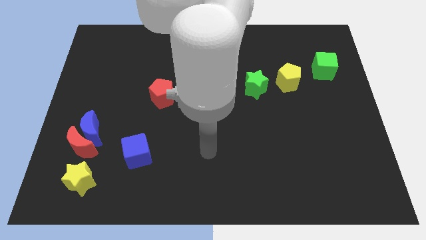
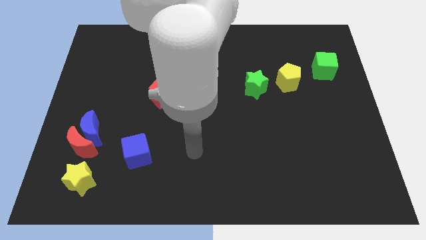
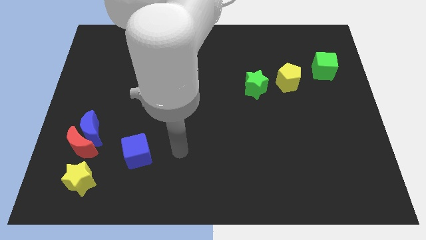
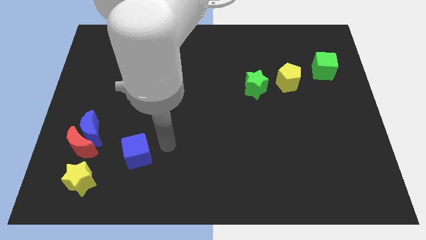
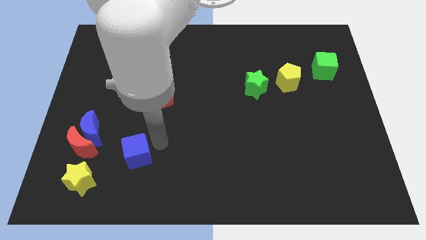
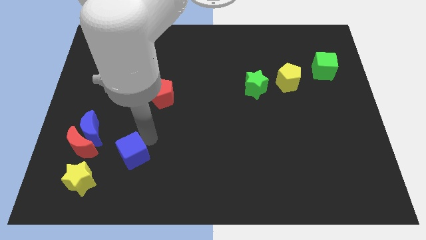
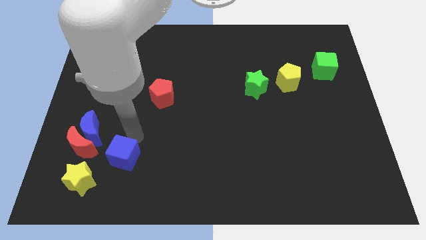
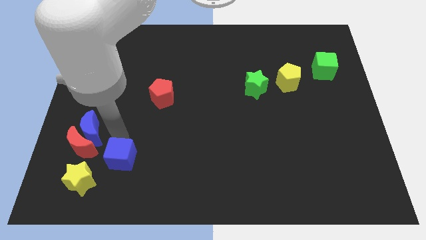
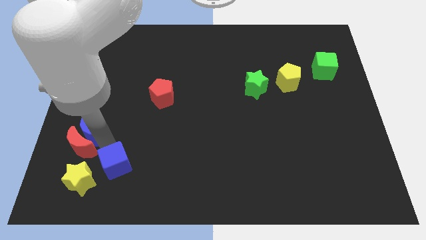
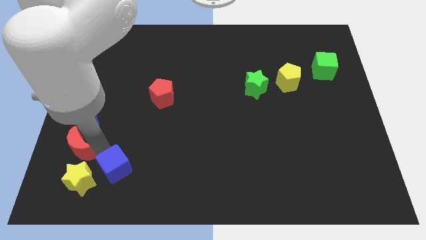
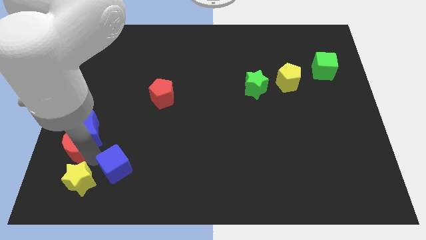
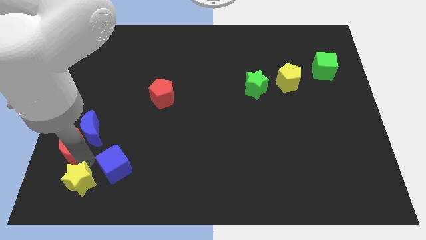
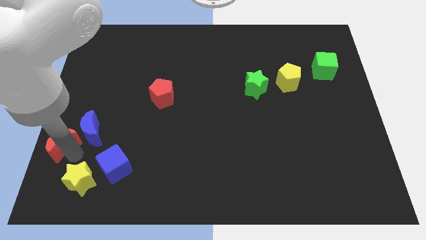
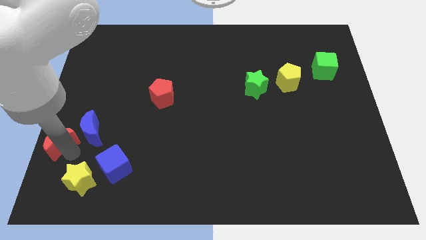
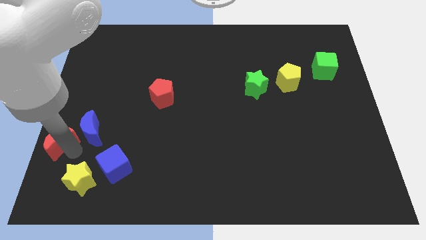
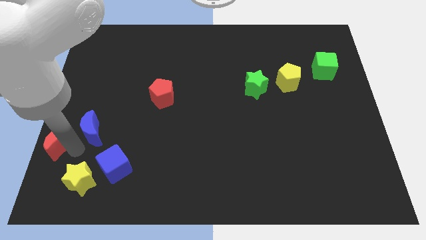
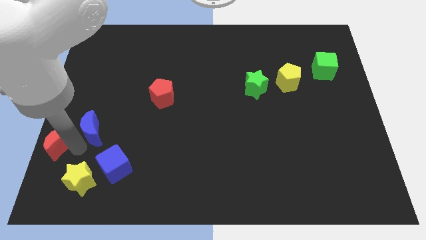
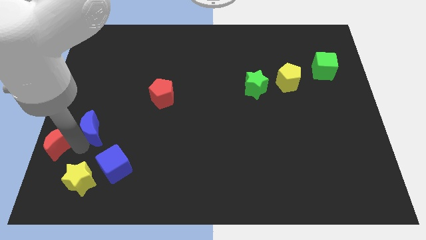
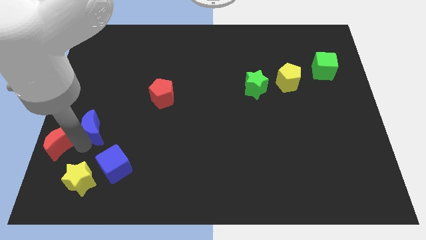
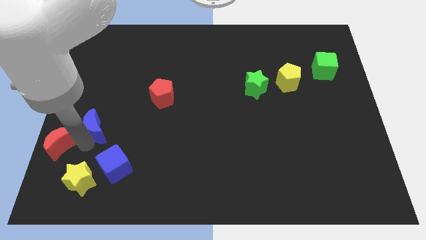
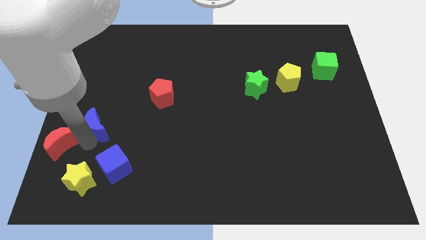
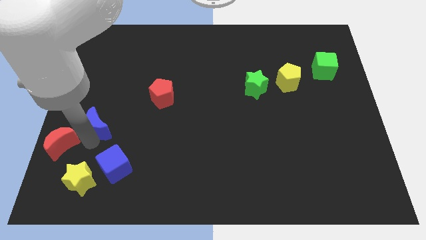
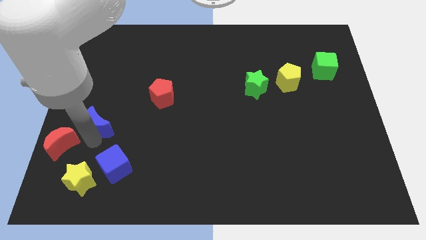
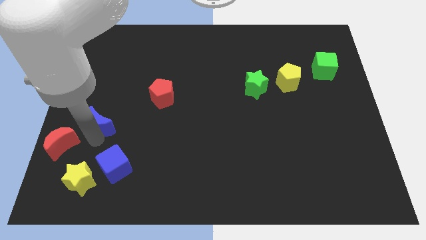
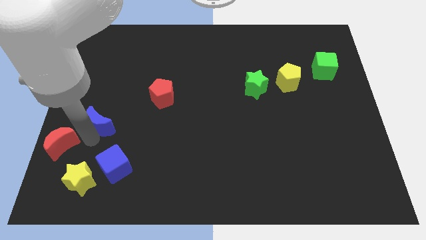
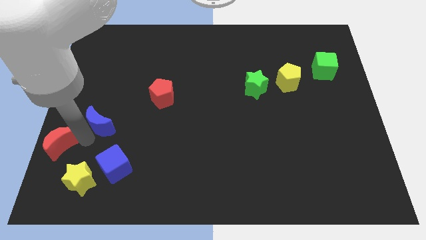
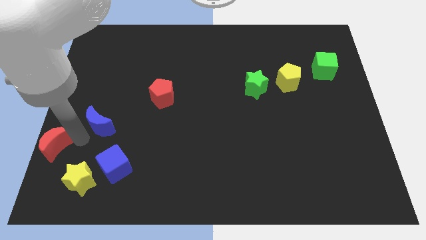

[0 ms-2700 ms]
separate the blue moon from the red moon

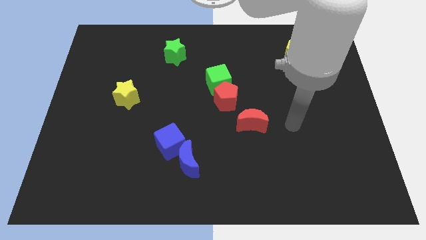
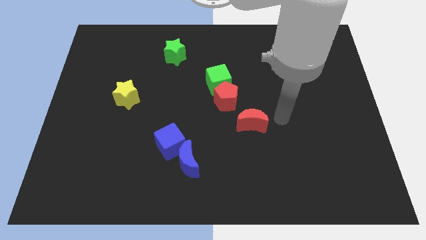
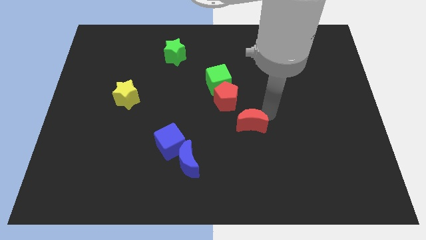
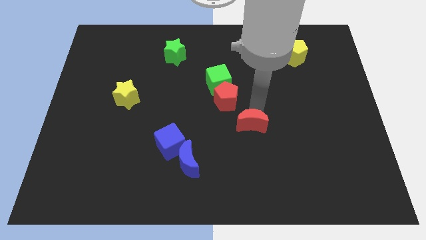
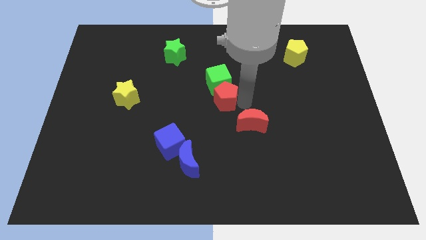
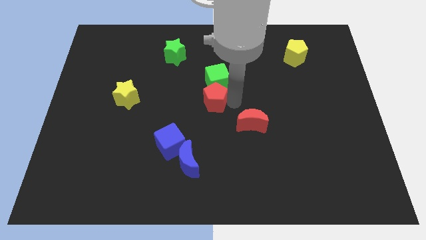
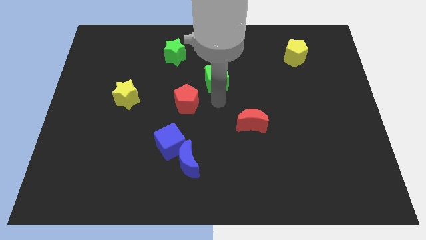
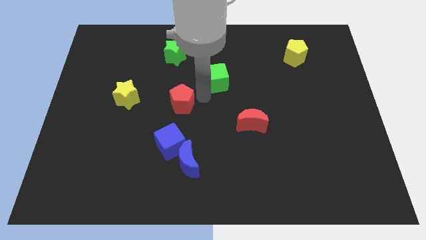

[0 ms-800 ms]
separate the green cube from the red pentagon

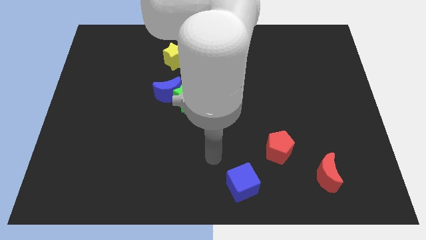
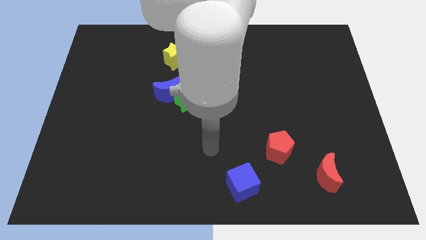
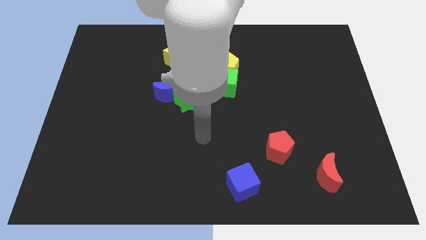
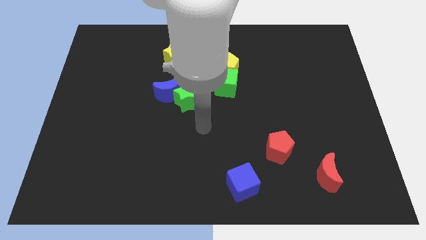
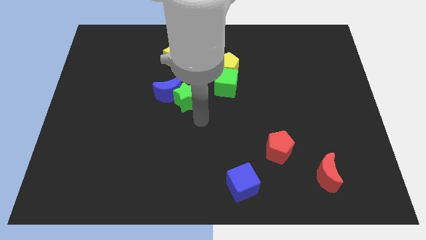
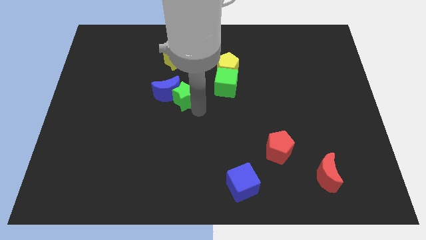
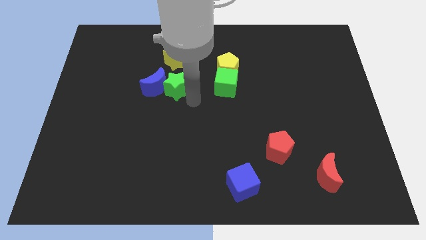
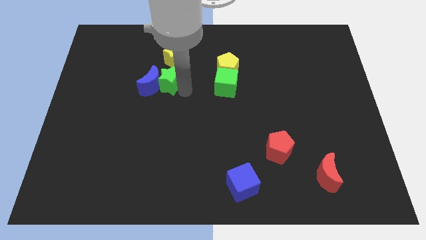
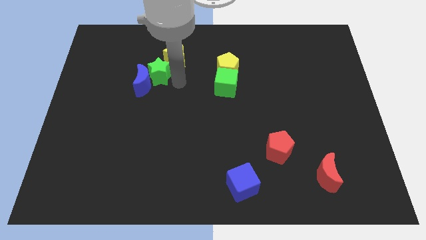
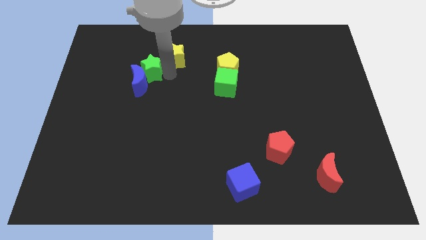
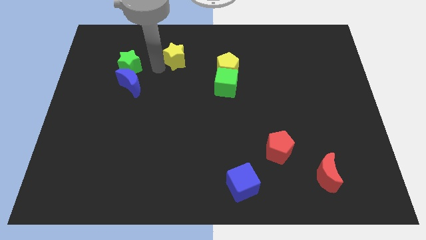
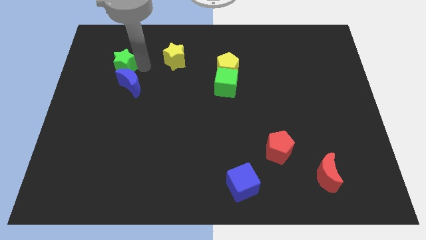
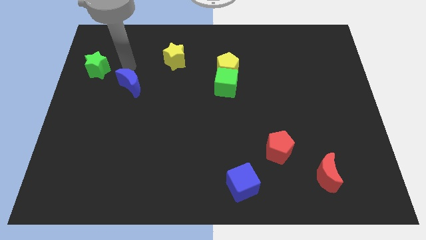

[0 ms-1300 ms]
separate the blue moon from the green star

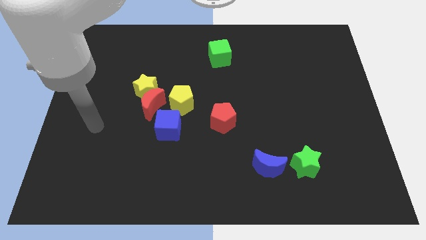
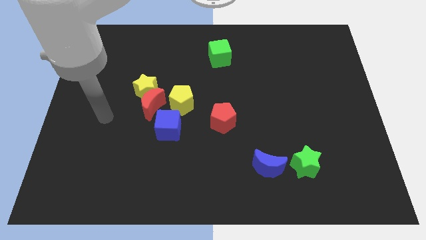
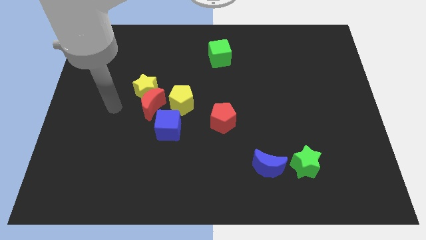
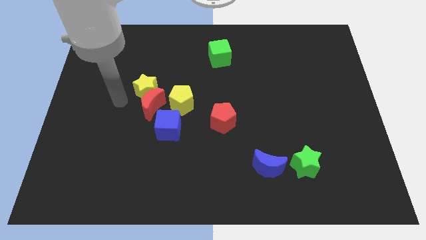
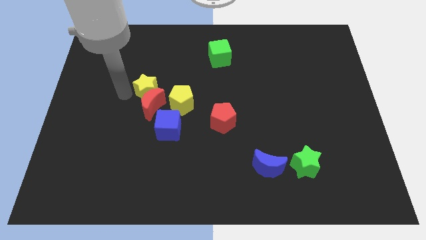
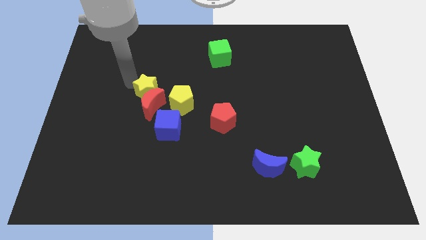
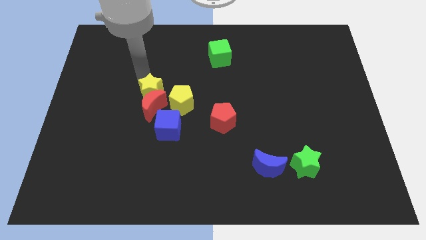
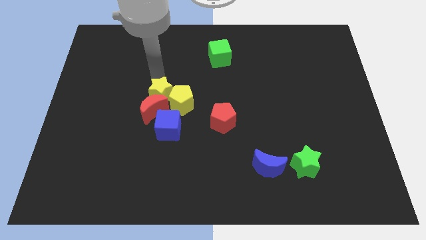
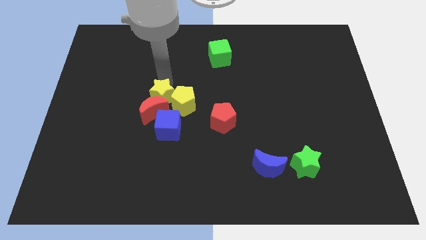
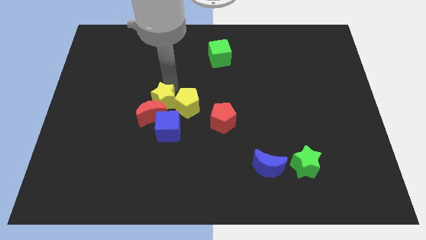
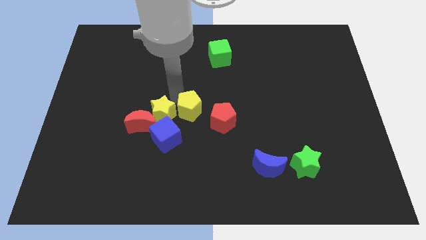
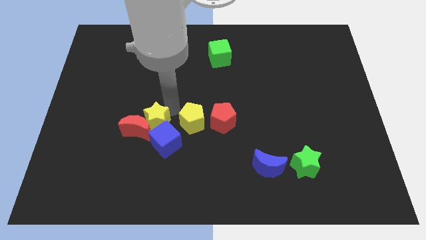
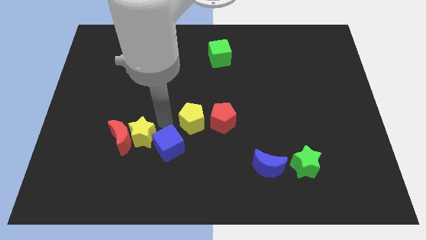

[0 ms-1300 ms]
move the red moon away from the group

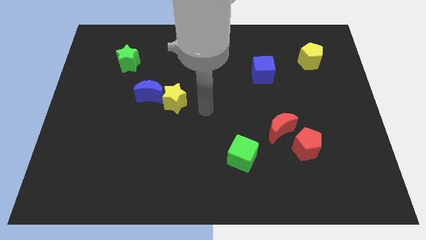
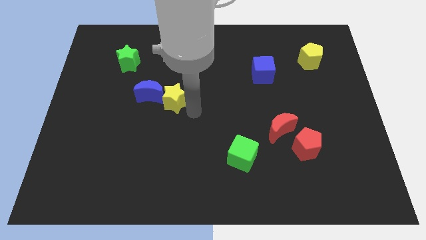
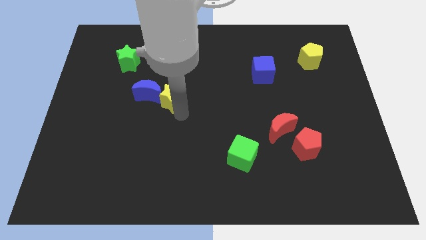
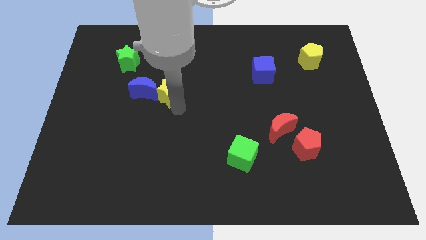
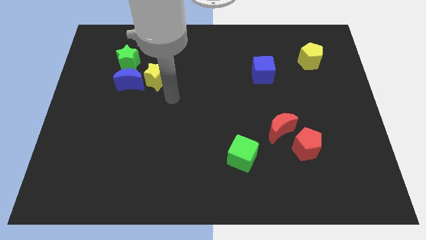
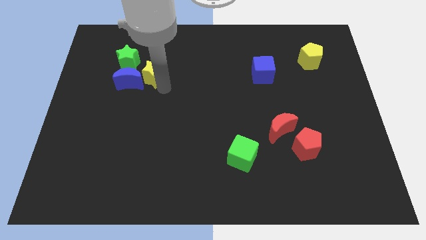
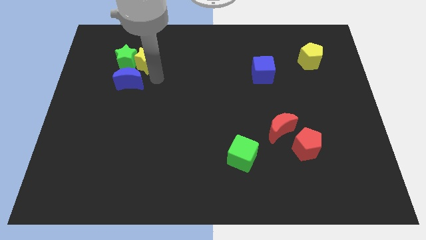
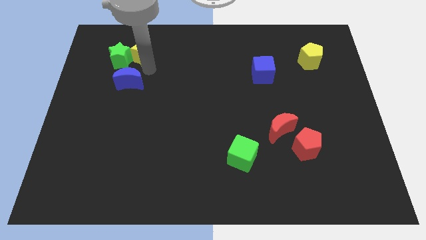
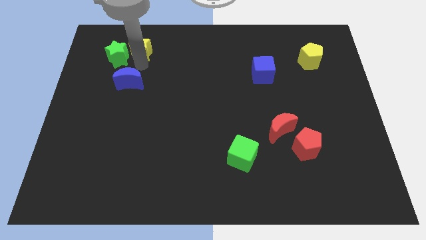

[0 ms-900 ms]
separate the blue moon from the yellow star

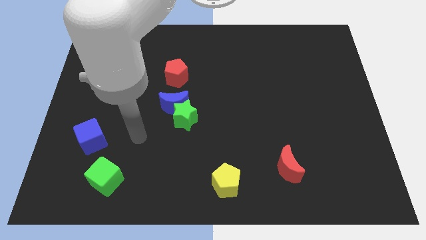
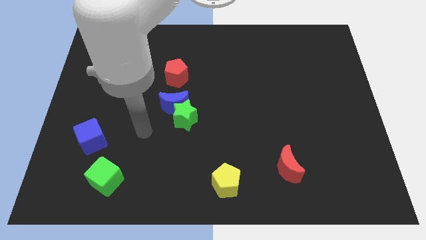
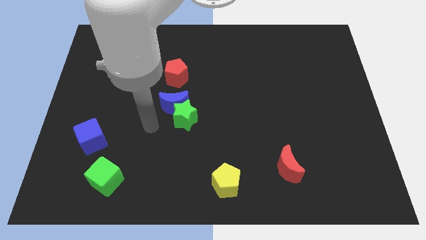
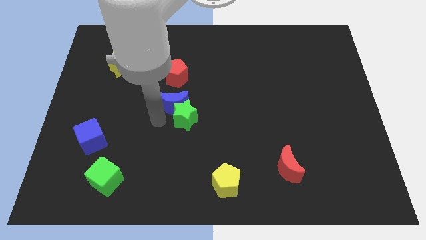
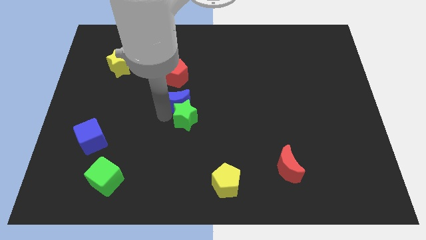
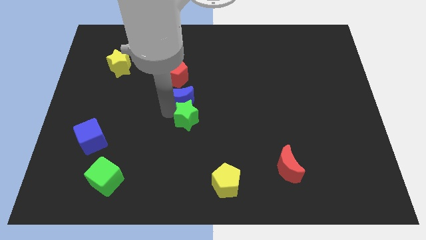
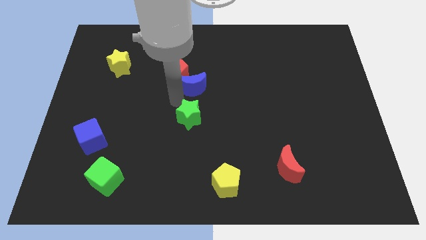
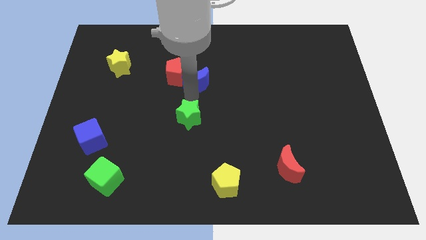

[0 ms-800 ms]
separate the green star from the blue moon

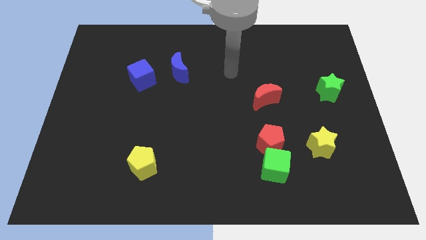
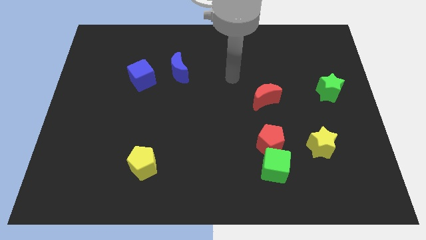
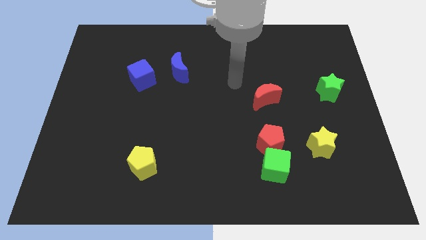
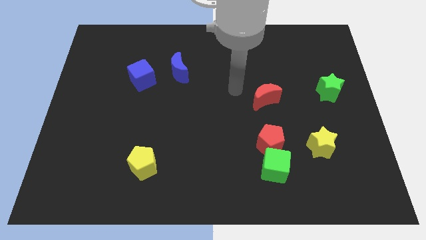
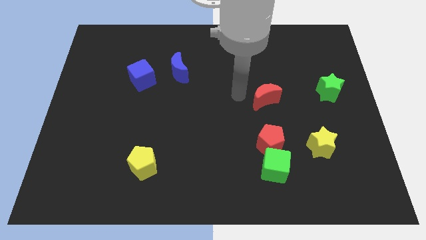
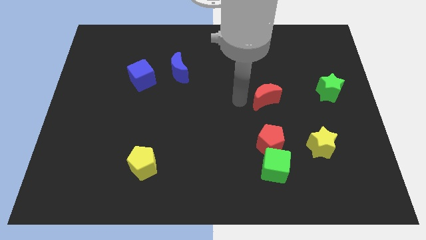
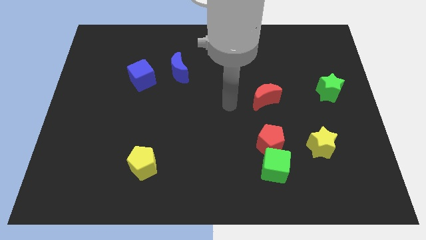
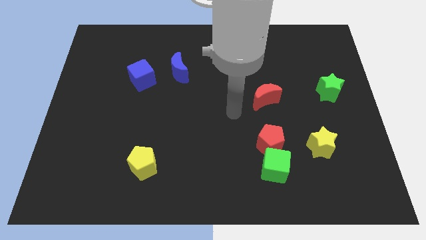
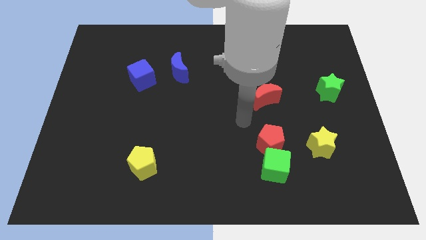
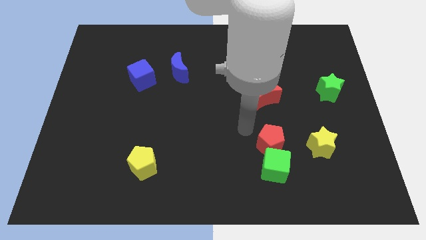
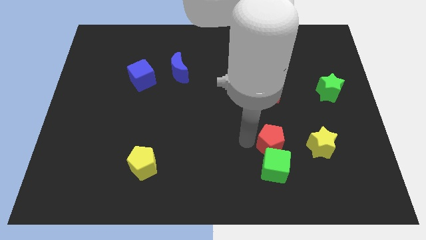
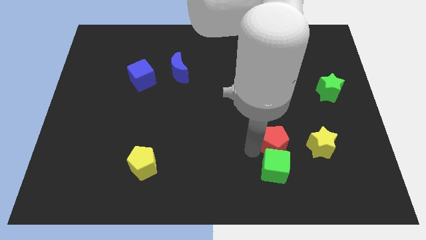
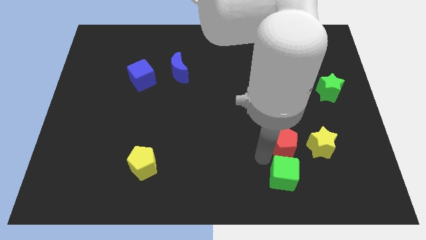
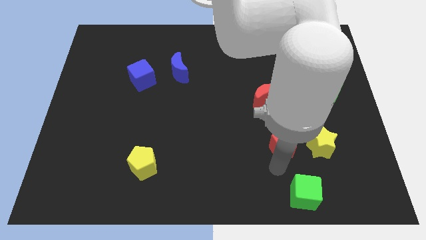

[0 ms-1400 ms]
pull the red pentagon apart from the green cube
